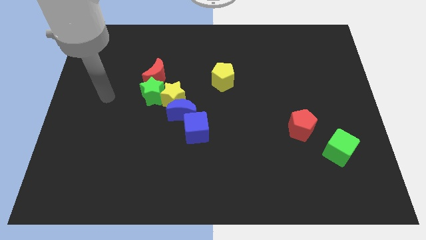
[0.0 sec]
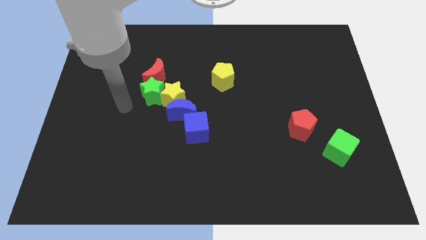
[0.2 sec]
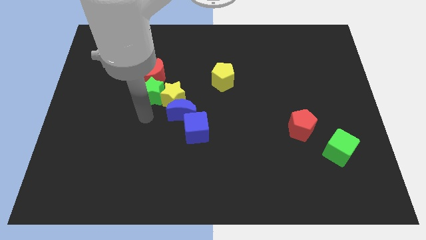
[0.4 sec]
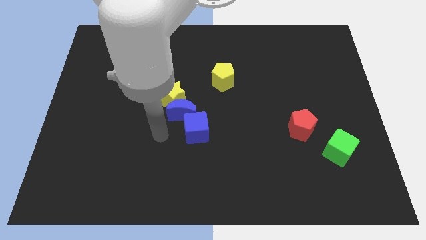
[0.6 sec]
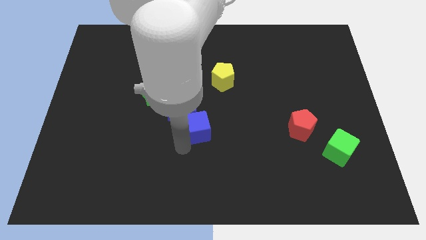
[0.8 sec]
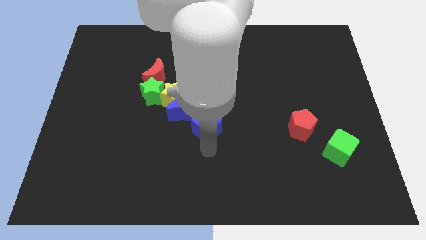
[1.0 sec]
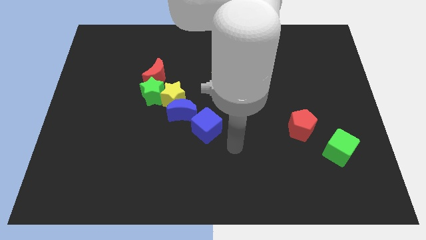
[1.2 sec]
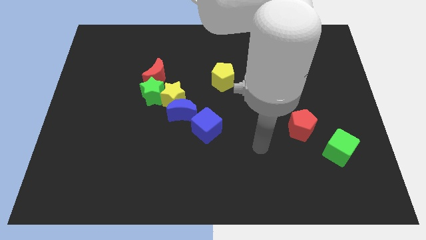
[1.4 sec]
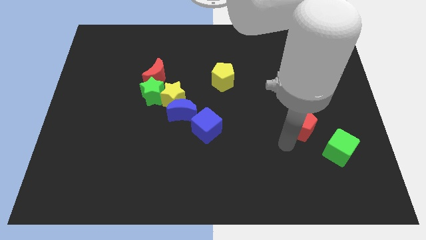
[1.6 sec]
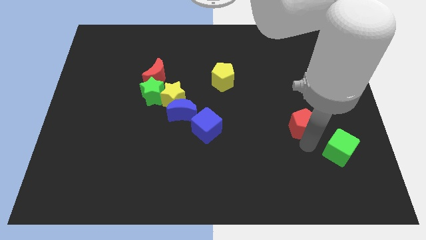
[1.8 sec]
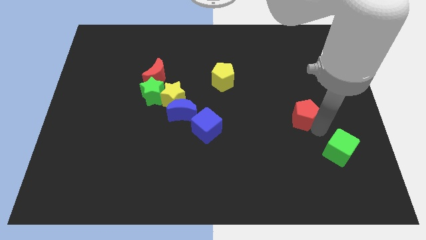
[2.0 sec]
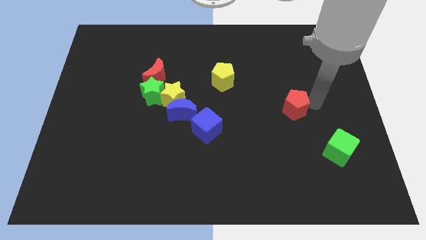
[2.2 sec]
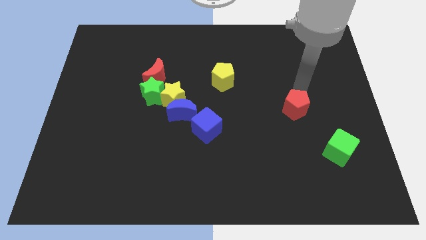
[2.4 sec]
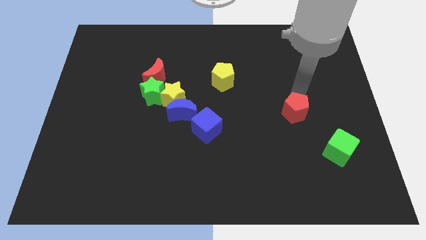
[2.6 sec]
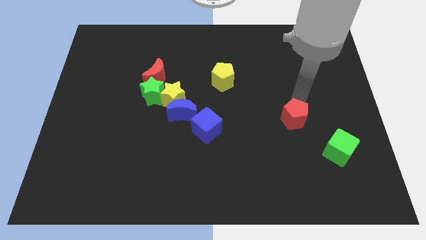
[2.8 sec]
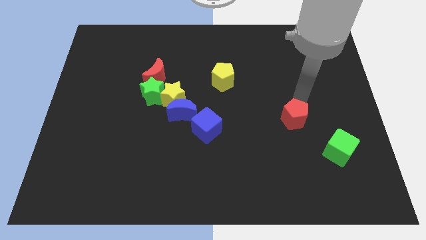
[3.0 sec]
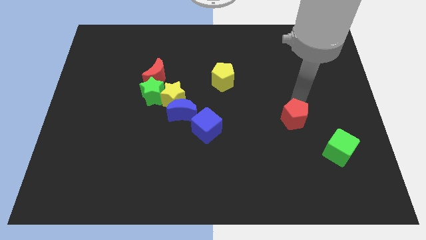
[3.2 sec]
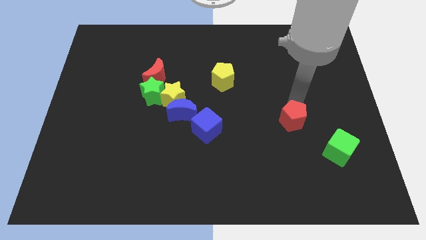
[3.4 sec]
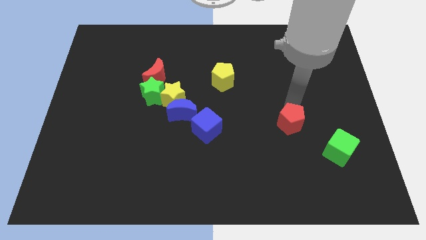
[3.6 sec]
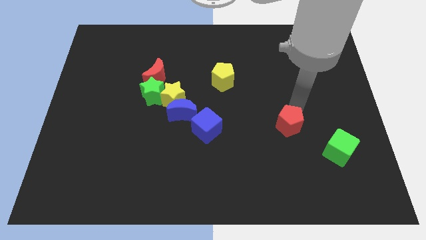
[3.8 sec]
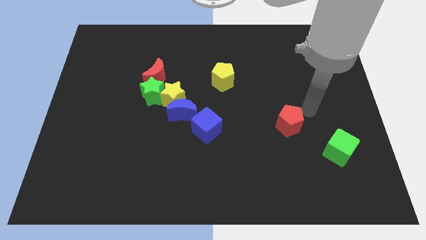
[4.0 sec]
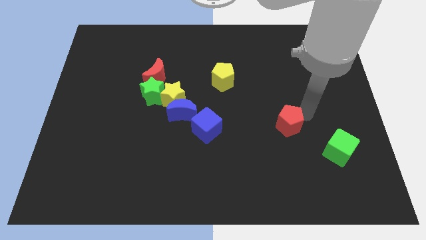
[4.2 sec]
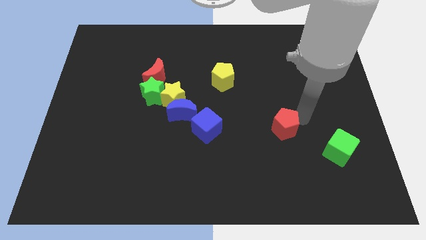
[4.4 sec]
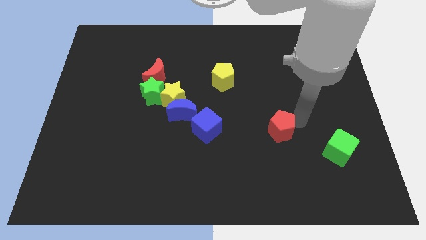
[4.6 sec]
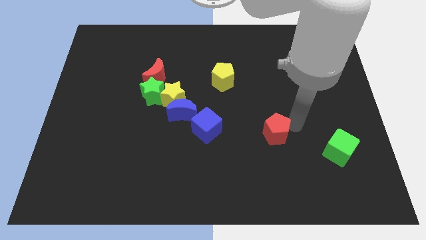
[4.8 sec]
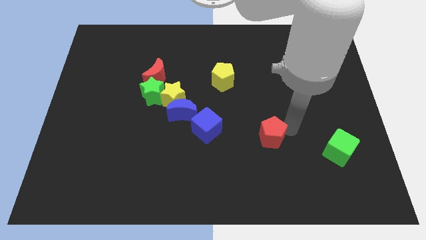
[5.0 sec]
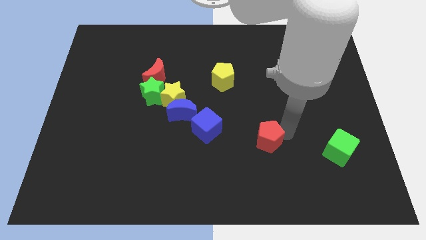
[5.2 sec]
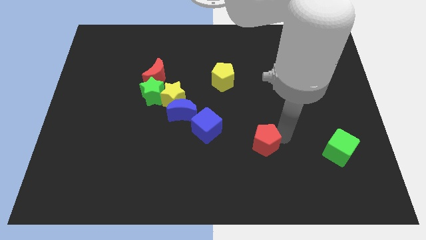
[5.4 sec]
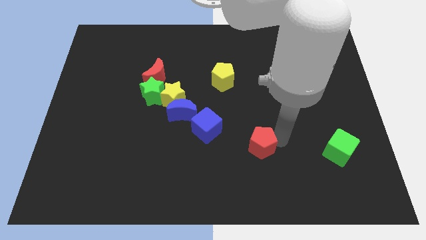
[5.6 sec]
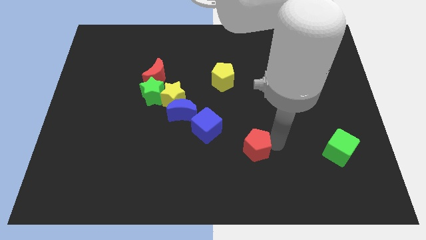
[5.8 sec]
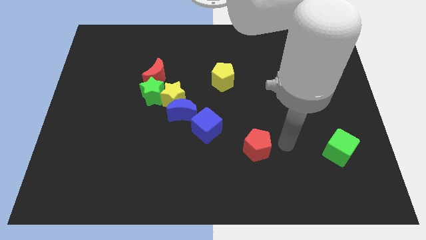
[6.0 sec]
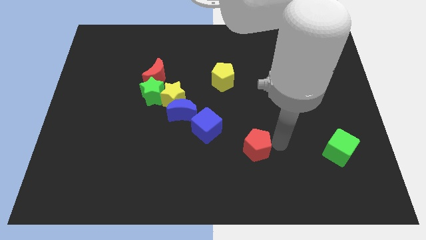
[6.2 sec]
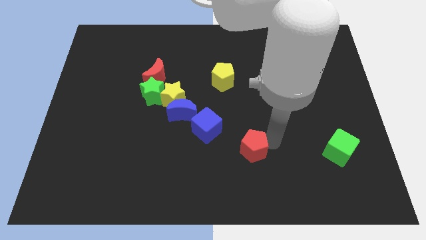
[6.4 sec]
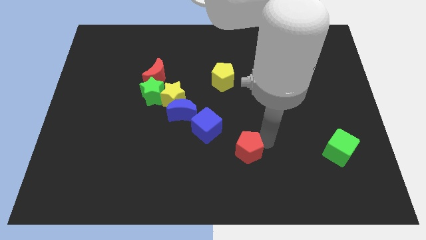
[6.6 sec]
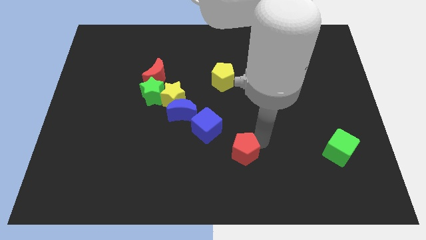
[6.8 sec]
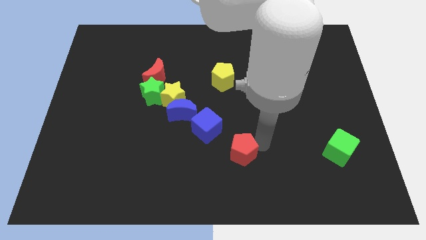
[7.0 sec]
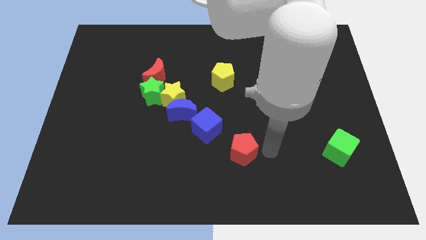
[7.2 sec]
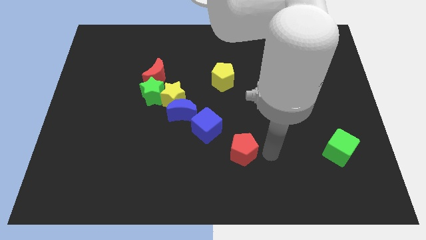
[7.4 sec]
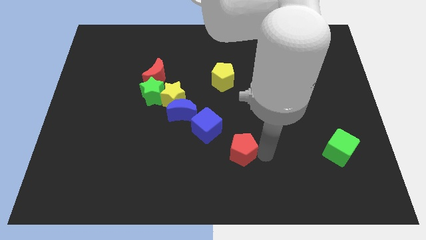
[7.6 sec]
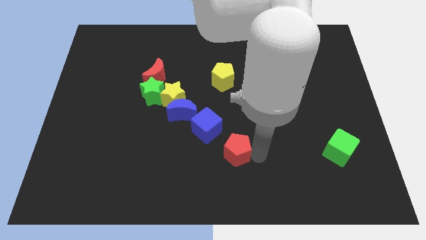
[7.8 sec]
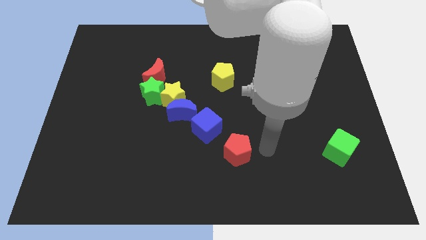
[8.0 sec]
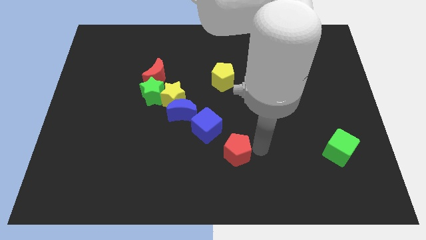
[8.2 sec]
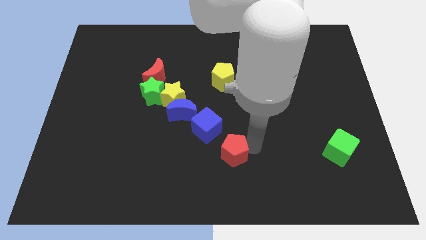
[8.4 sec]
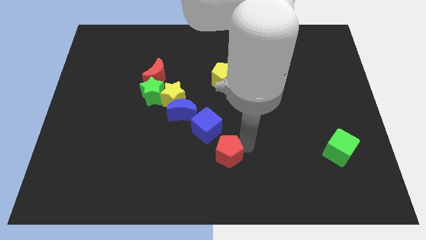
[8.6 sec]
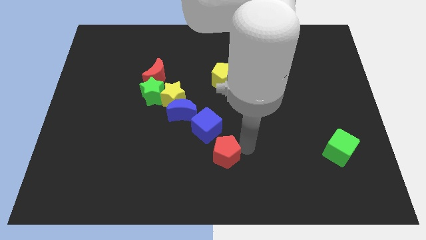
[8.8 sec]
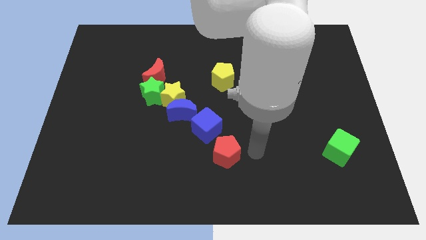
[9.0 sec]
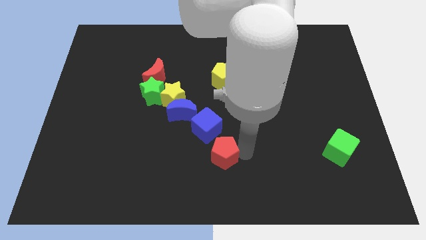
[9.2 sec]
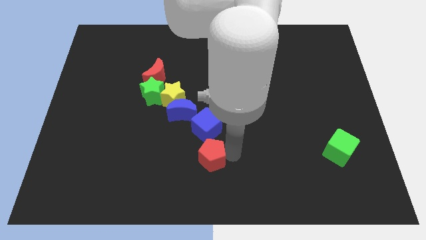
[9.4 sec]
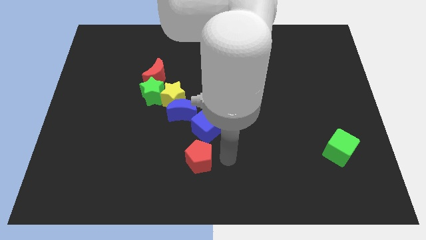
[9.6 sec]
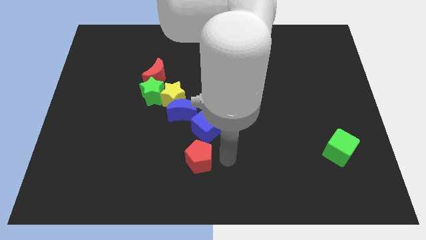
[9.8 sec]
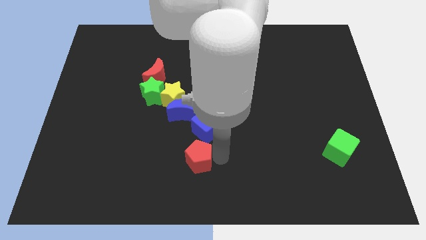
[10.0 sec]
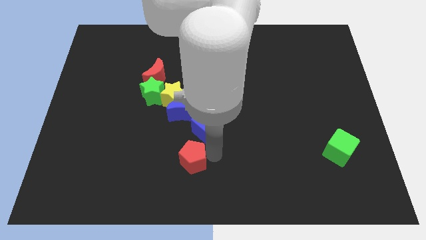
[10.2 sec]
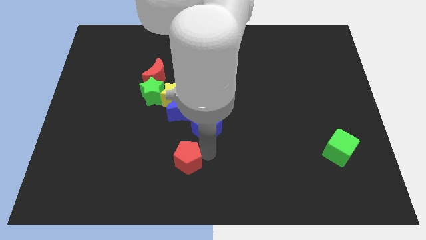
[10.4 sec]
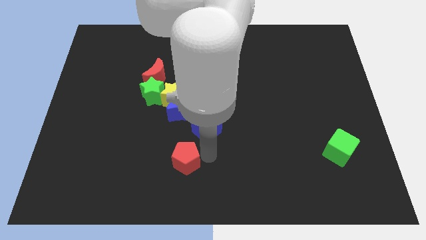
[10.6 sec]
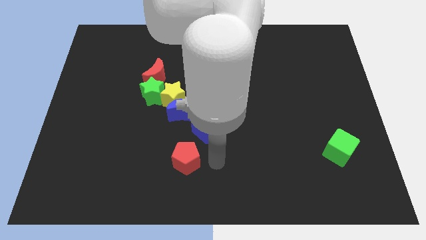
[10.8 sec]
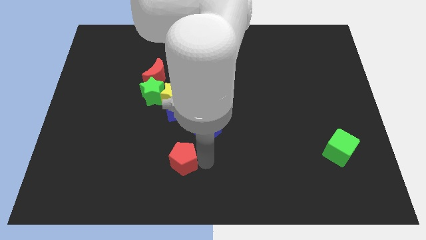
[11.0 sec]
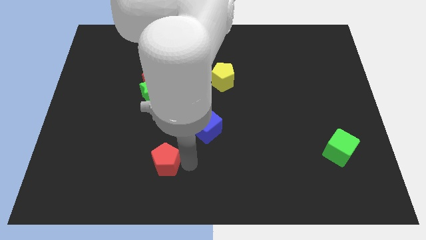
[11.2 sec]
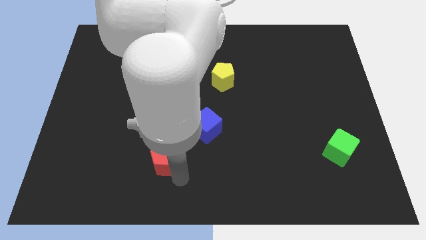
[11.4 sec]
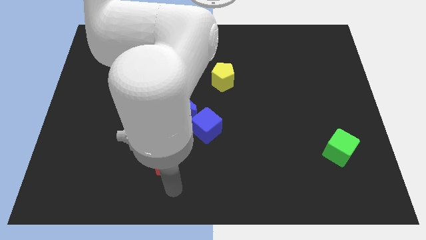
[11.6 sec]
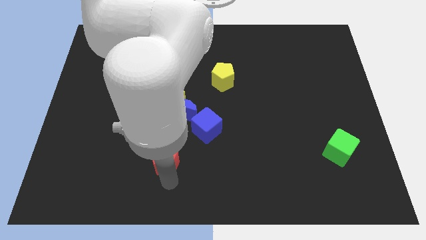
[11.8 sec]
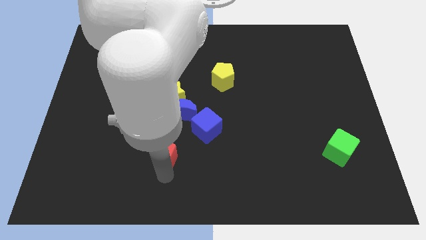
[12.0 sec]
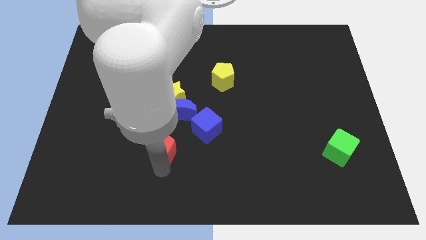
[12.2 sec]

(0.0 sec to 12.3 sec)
put the red pentagon to the bottom left side of the blue moon

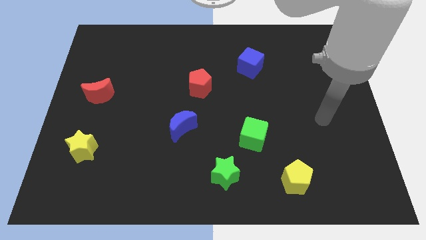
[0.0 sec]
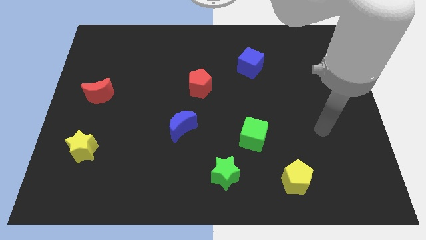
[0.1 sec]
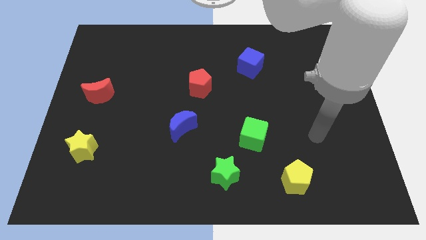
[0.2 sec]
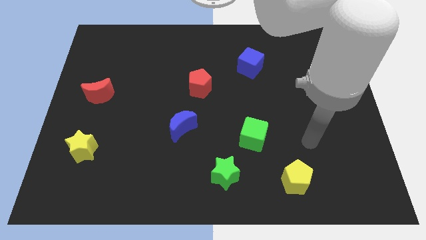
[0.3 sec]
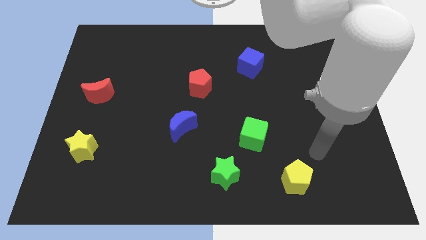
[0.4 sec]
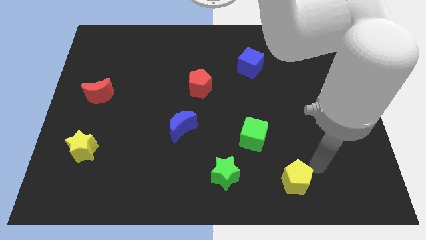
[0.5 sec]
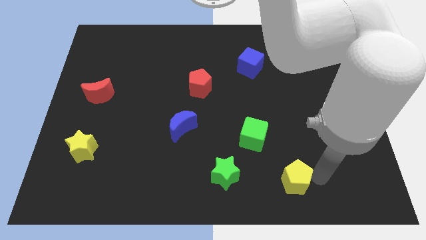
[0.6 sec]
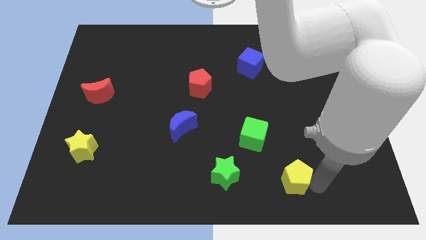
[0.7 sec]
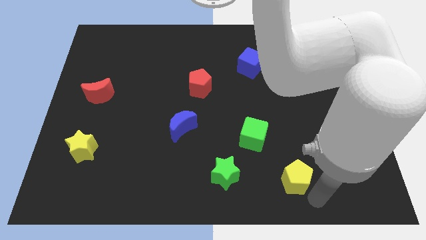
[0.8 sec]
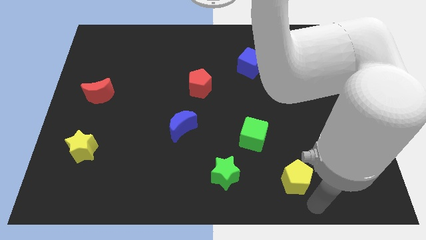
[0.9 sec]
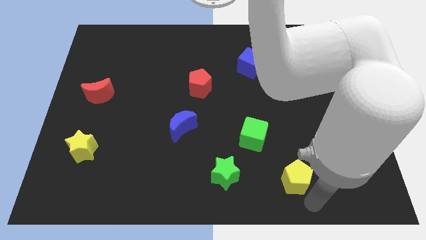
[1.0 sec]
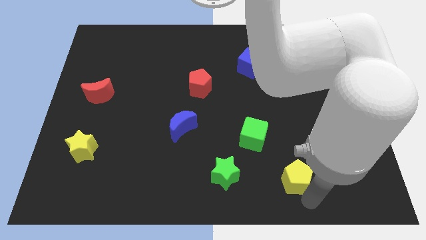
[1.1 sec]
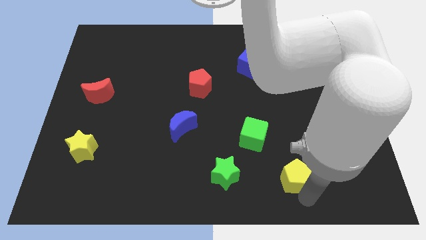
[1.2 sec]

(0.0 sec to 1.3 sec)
push the yellow pentagon to the bottom right of the green cube

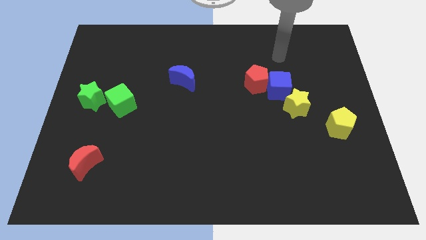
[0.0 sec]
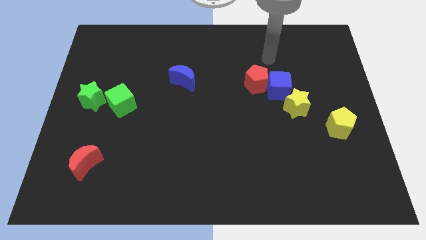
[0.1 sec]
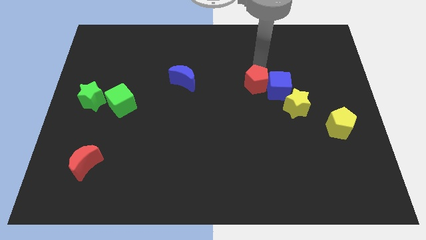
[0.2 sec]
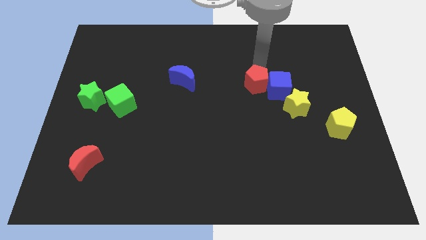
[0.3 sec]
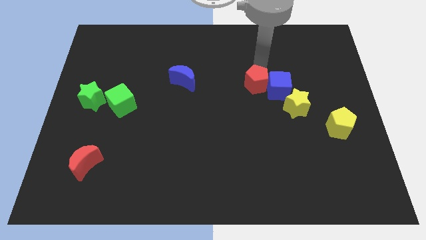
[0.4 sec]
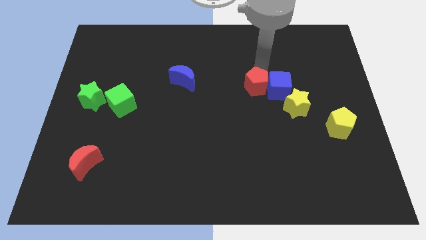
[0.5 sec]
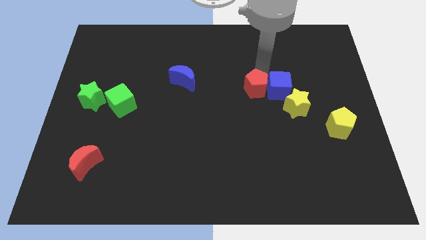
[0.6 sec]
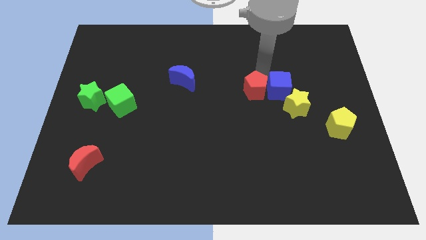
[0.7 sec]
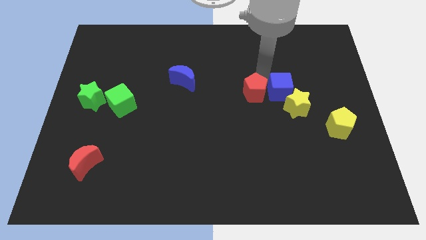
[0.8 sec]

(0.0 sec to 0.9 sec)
push the red pentagon just left of the yellow star
